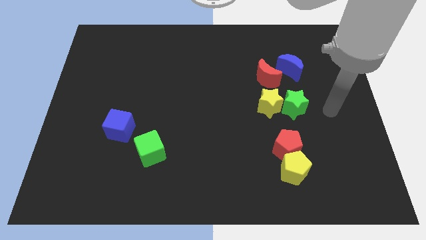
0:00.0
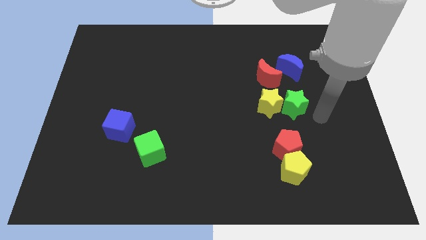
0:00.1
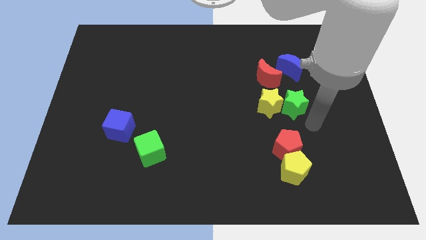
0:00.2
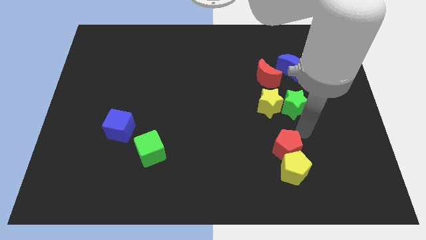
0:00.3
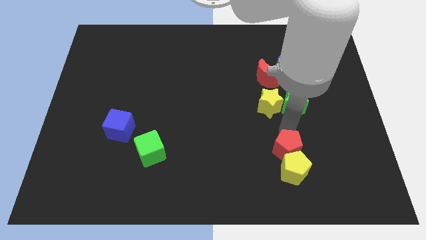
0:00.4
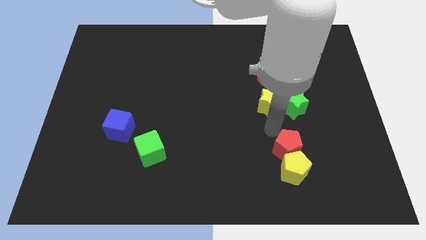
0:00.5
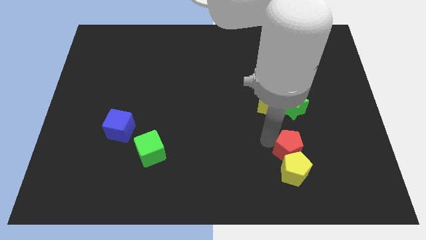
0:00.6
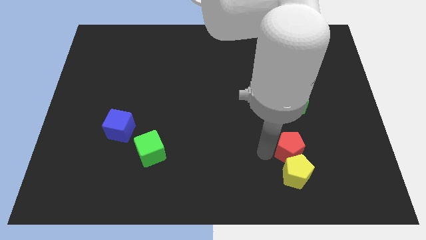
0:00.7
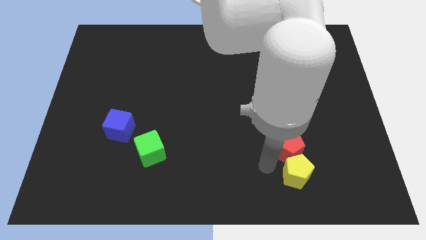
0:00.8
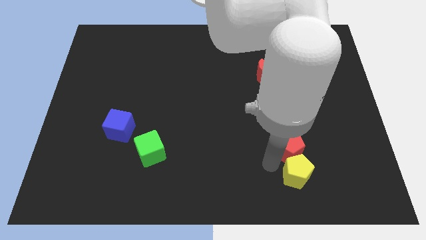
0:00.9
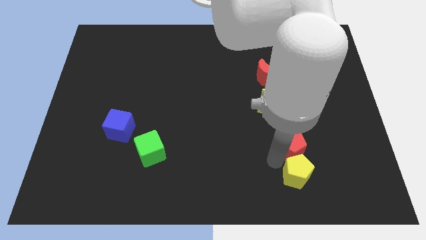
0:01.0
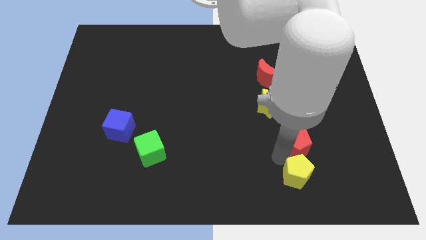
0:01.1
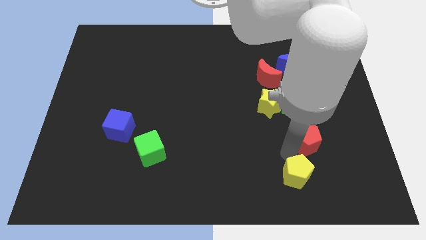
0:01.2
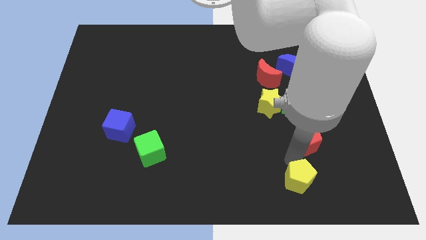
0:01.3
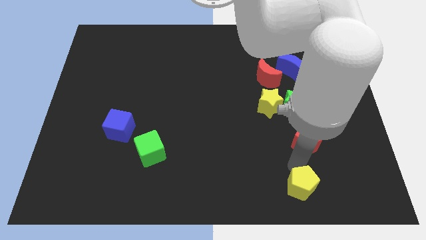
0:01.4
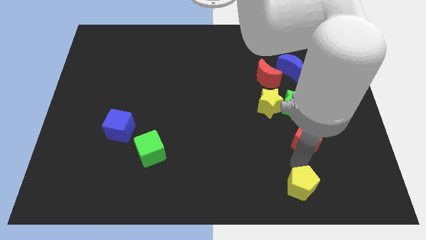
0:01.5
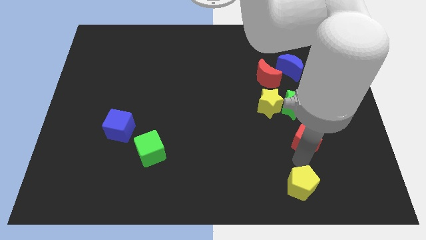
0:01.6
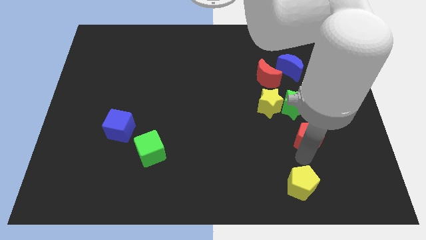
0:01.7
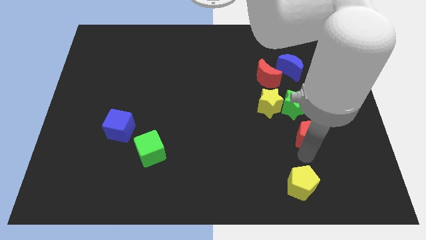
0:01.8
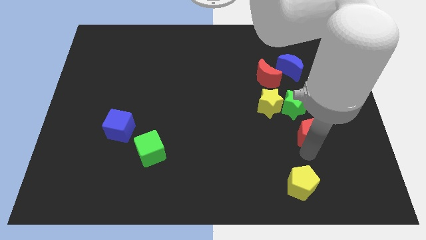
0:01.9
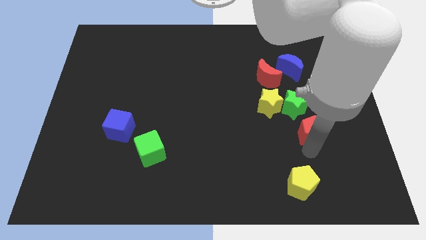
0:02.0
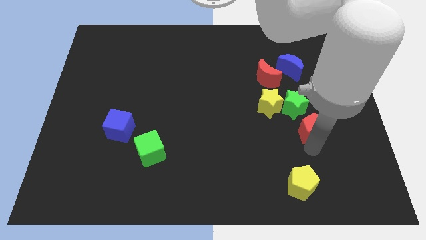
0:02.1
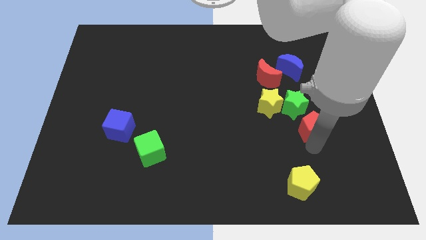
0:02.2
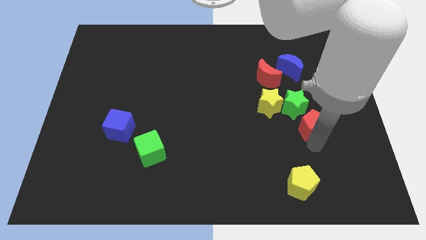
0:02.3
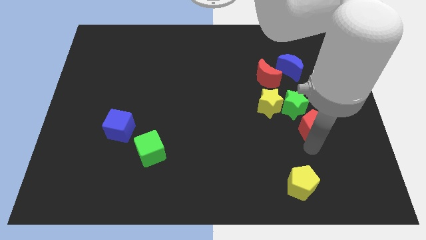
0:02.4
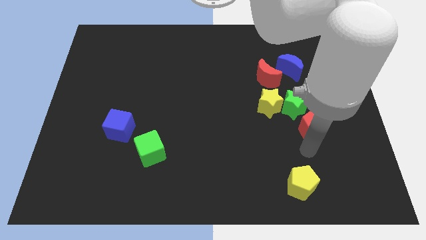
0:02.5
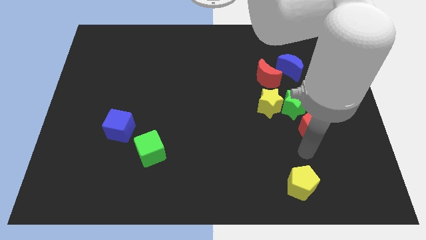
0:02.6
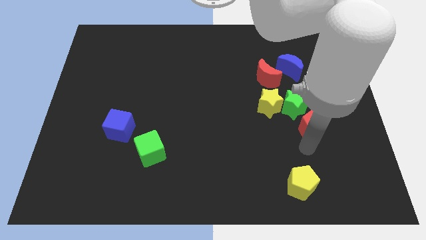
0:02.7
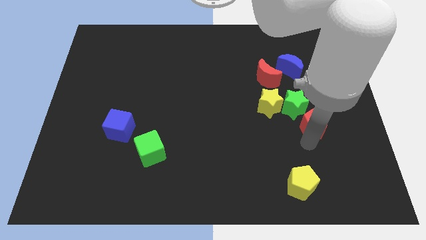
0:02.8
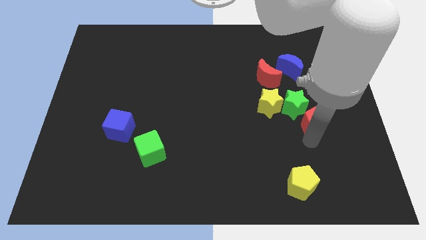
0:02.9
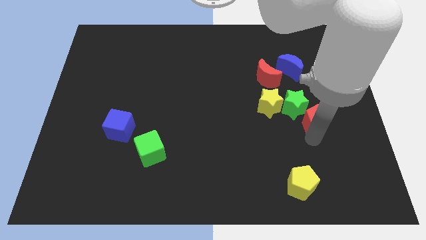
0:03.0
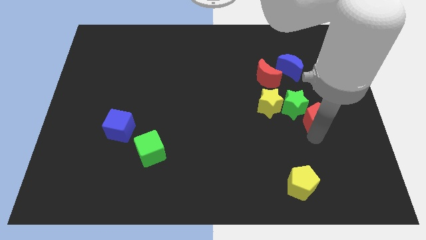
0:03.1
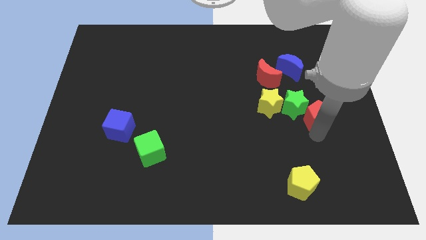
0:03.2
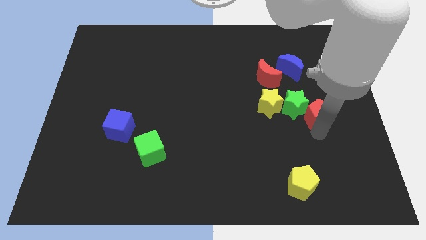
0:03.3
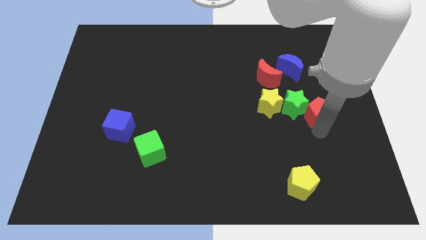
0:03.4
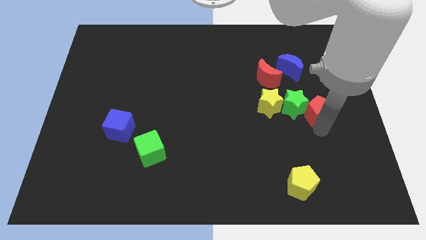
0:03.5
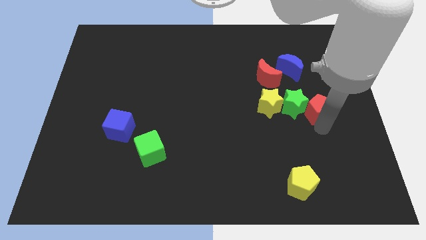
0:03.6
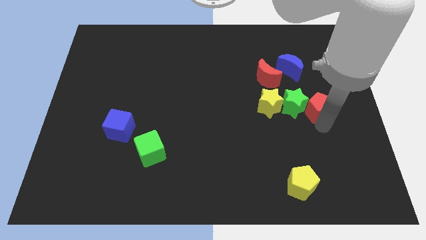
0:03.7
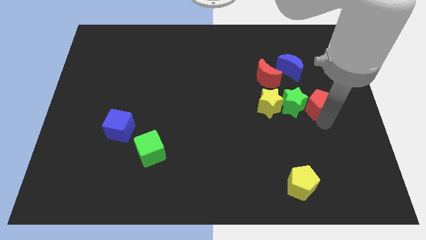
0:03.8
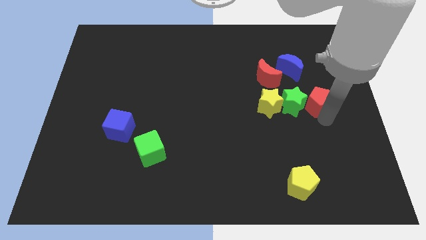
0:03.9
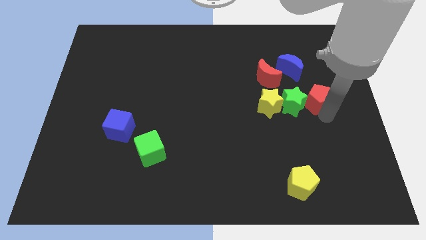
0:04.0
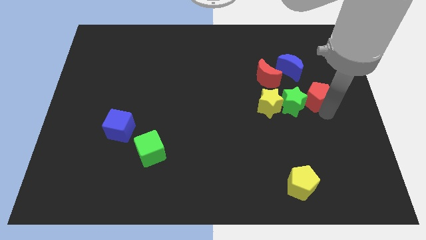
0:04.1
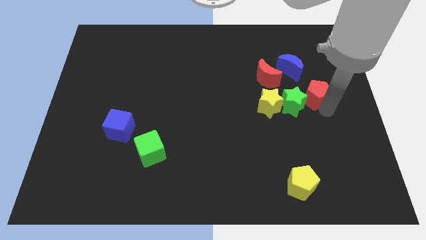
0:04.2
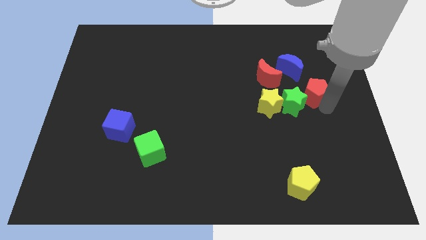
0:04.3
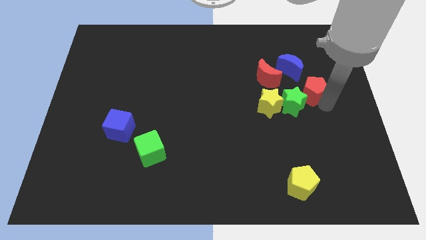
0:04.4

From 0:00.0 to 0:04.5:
push the red pentagon to the right of the red moon

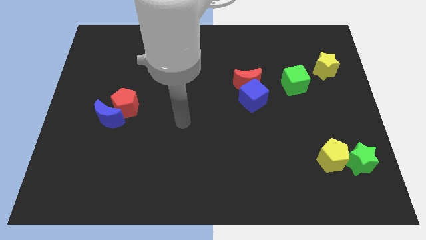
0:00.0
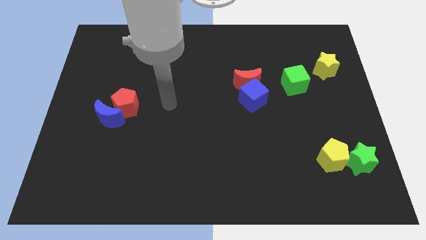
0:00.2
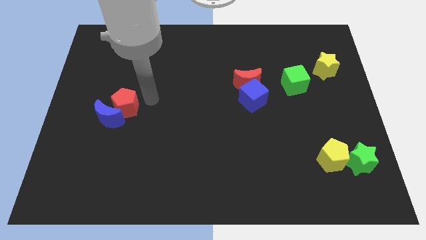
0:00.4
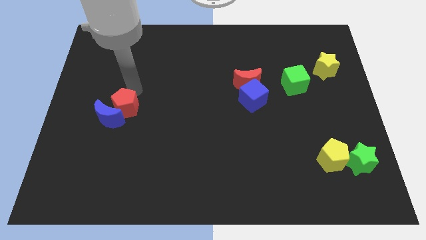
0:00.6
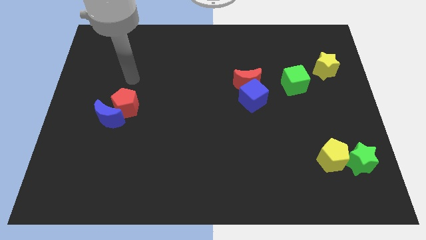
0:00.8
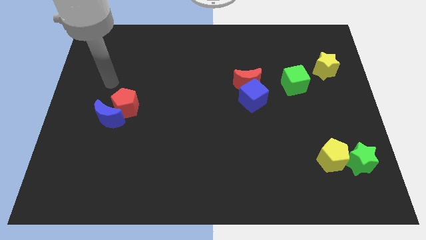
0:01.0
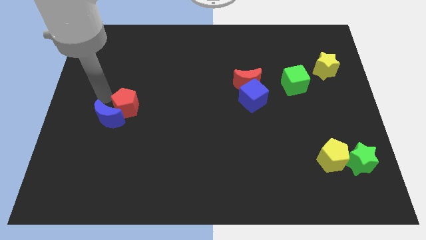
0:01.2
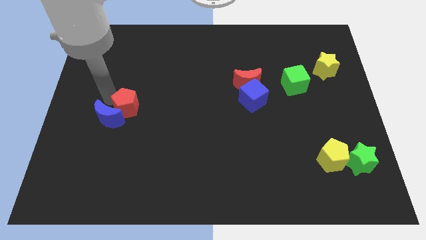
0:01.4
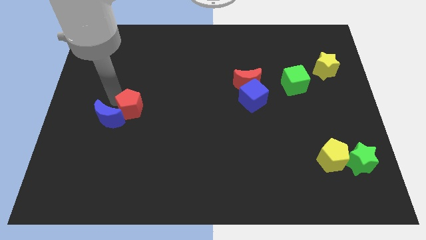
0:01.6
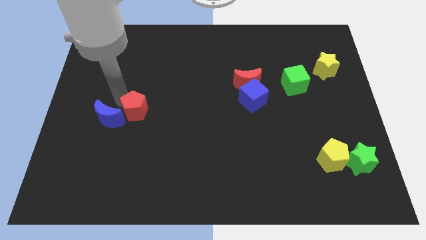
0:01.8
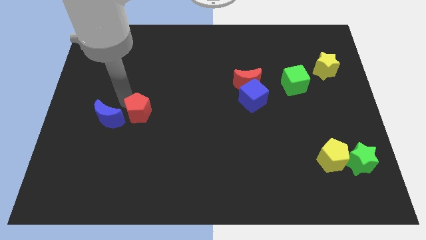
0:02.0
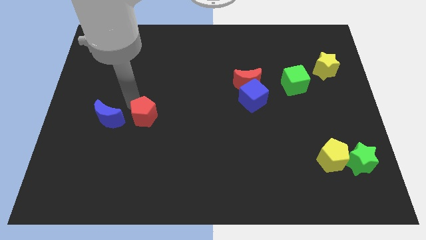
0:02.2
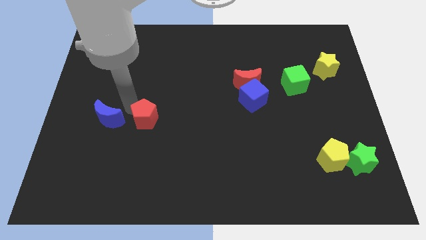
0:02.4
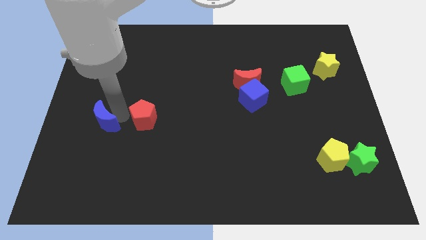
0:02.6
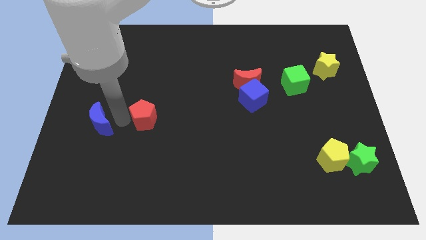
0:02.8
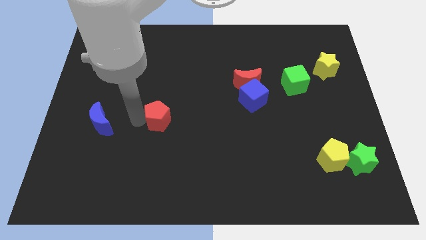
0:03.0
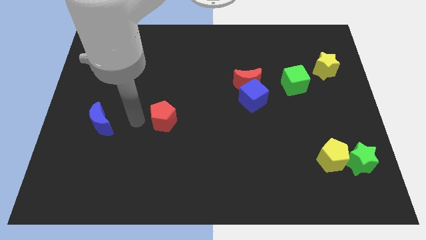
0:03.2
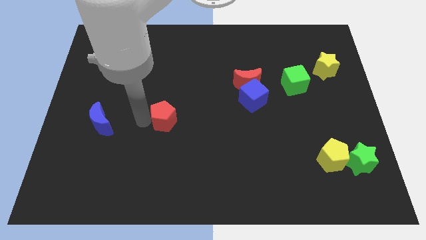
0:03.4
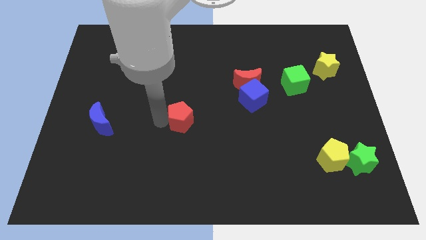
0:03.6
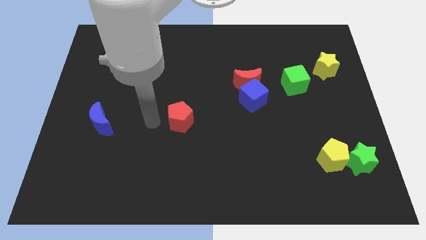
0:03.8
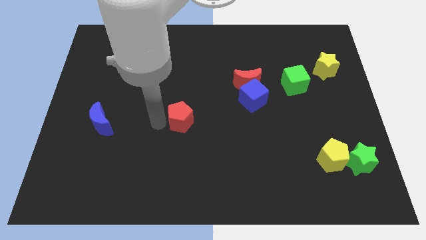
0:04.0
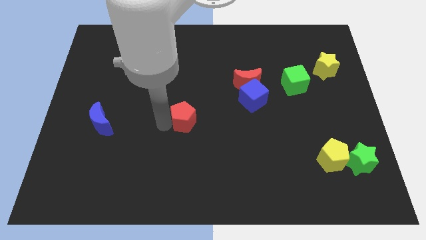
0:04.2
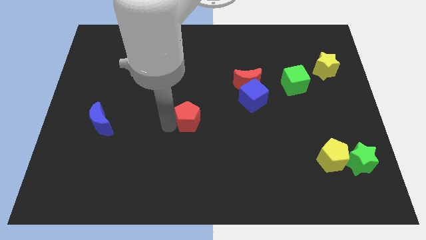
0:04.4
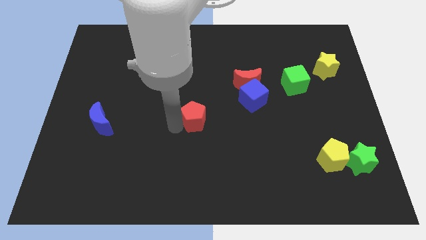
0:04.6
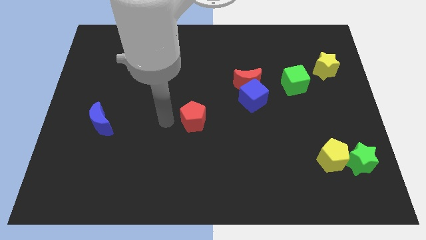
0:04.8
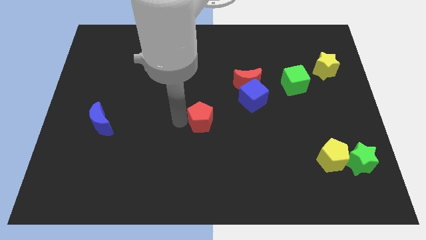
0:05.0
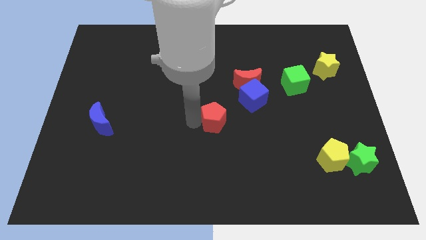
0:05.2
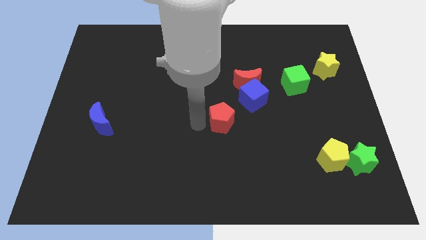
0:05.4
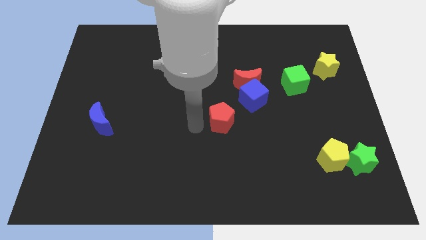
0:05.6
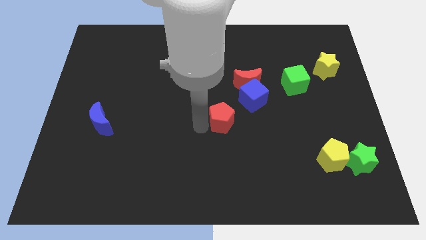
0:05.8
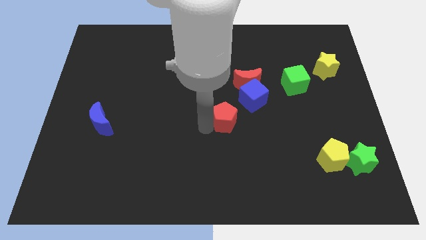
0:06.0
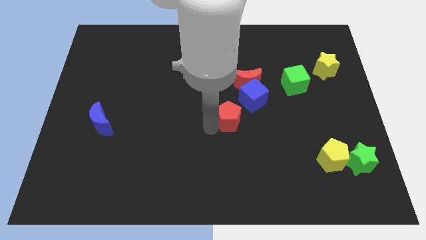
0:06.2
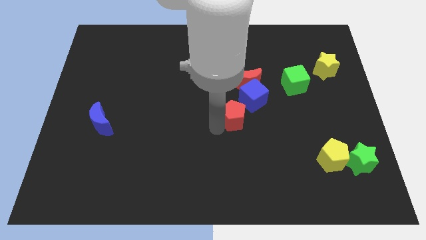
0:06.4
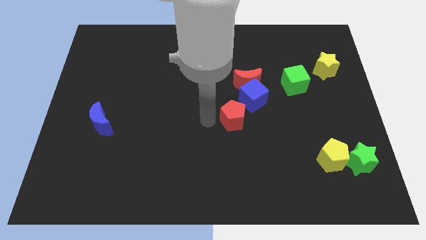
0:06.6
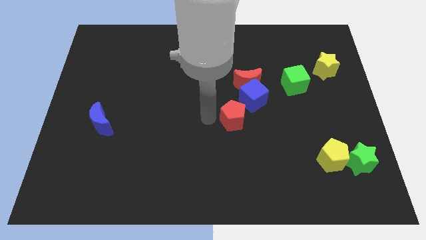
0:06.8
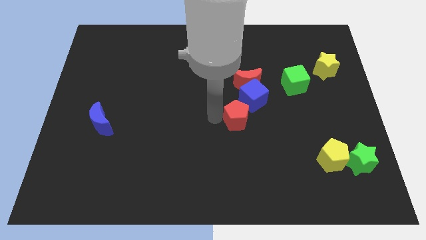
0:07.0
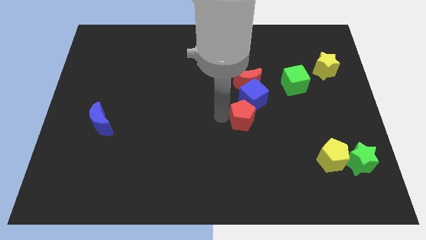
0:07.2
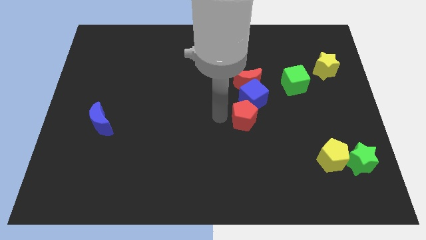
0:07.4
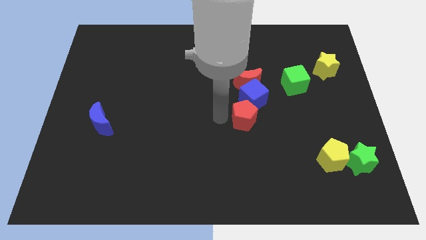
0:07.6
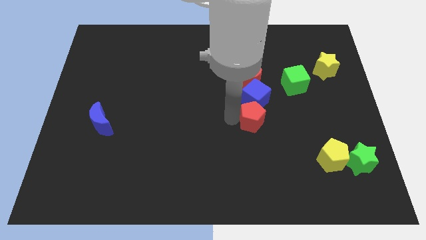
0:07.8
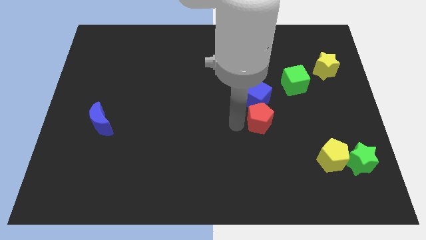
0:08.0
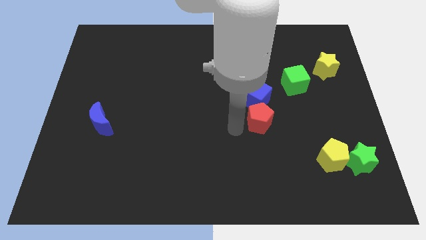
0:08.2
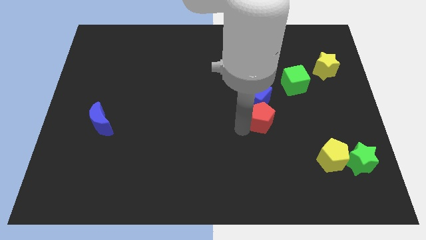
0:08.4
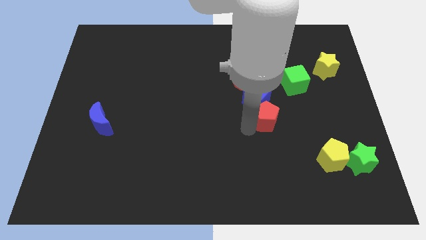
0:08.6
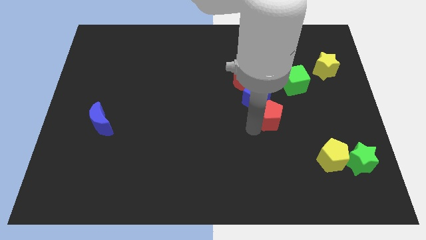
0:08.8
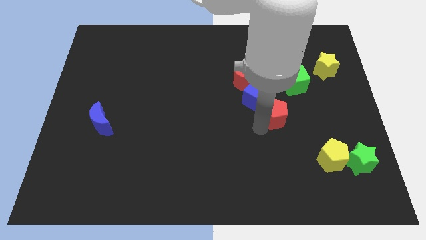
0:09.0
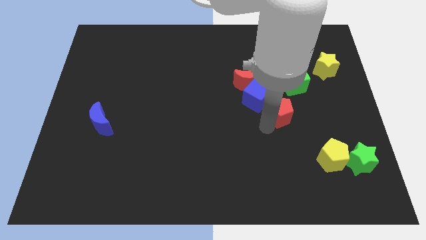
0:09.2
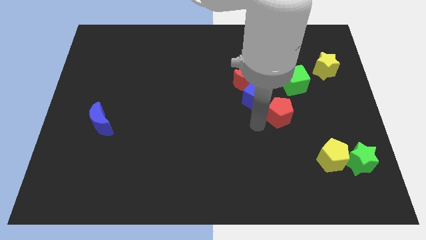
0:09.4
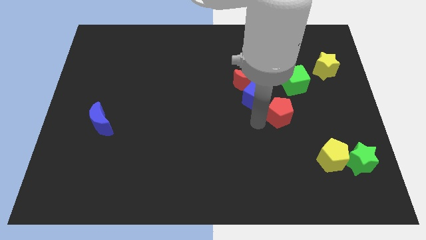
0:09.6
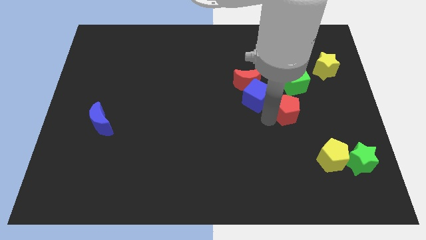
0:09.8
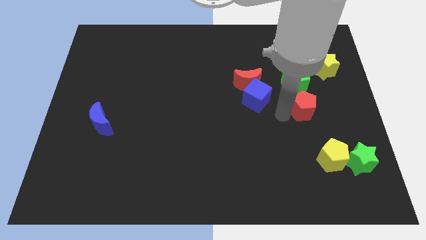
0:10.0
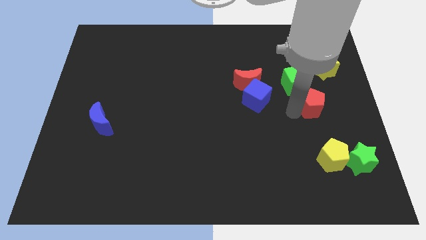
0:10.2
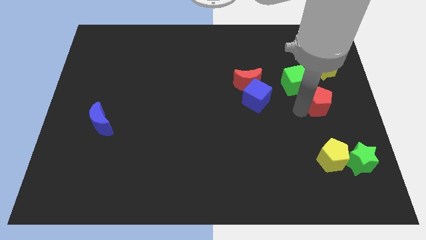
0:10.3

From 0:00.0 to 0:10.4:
put the red pentagon to the bottom of the yellow star
